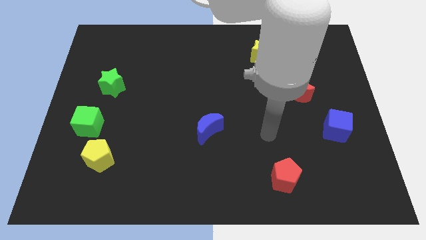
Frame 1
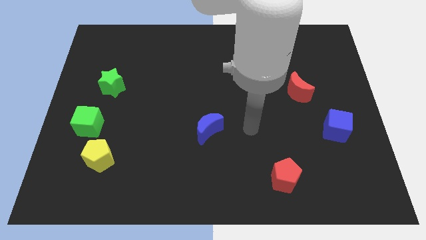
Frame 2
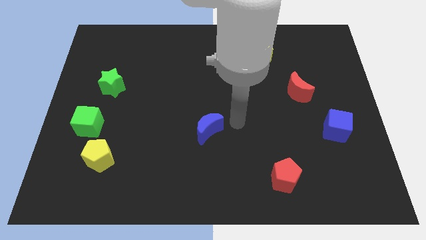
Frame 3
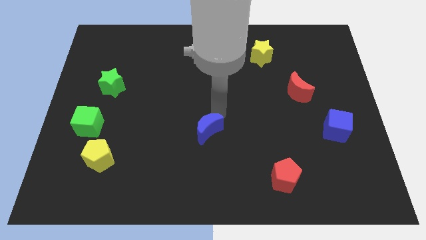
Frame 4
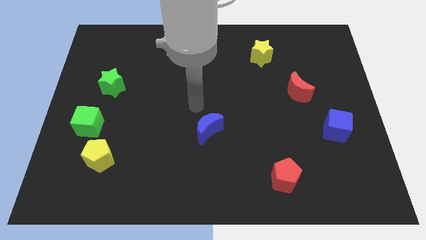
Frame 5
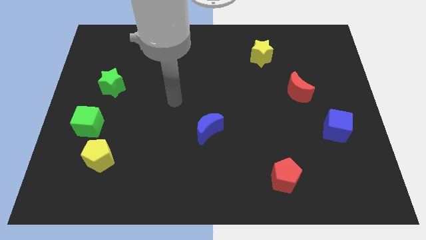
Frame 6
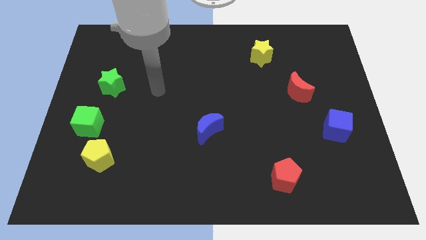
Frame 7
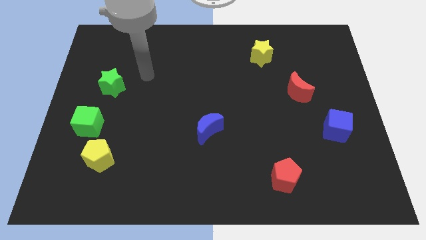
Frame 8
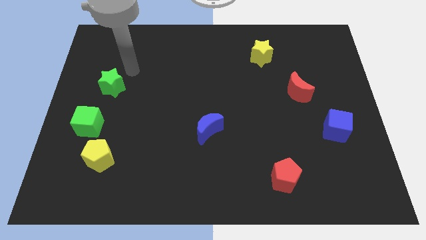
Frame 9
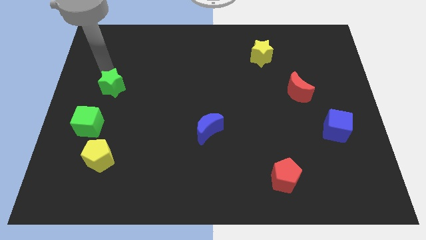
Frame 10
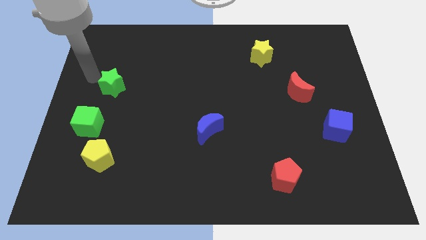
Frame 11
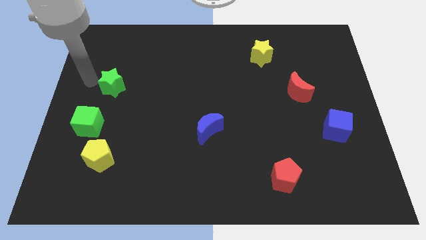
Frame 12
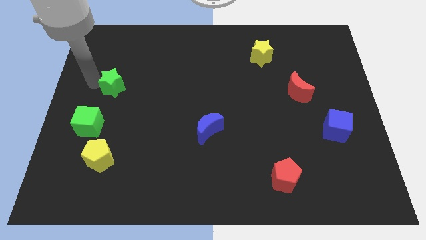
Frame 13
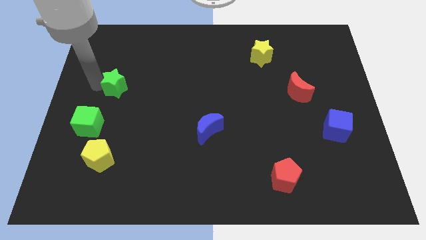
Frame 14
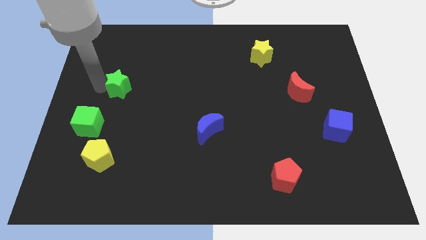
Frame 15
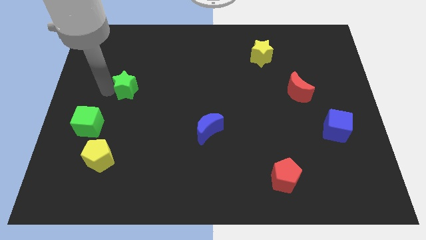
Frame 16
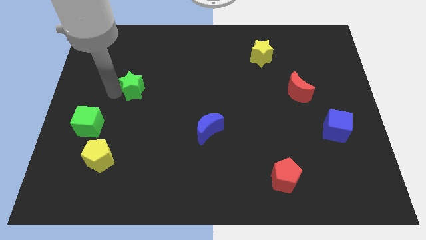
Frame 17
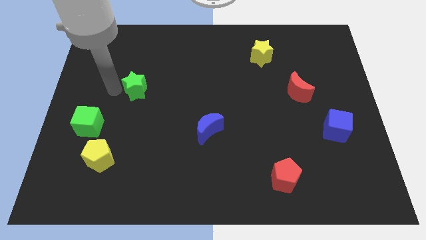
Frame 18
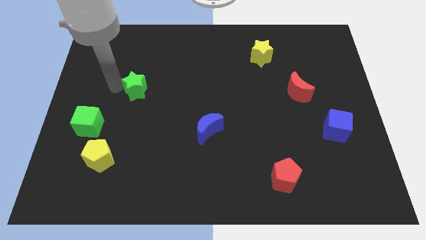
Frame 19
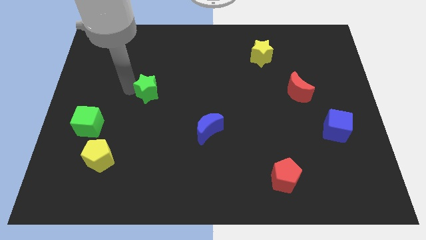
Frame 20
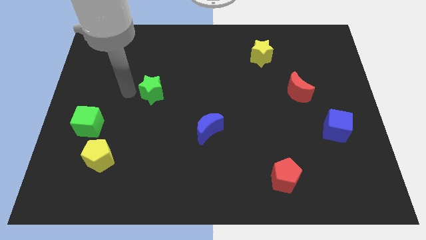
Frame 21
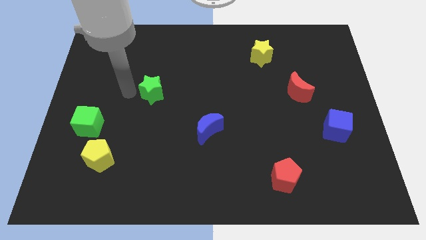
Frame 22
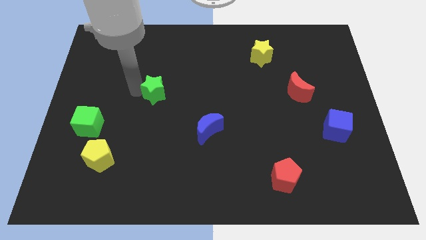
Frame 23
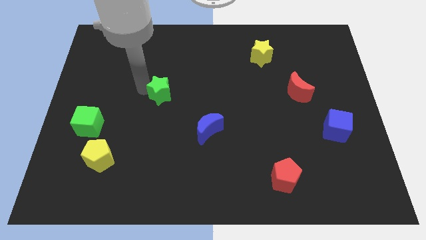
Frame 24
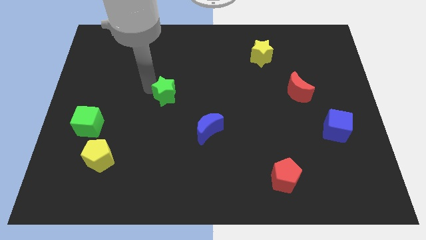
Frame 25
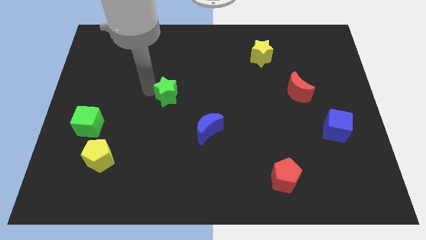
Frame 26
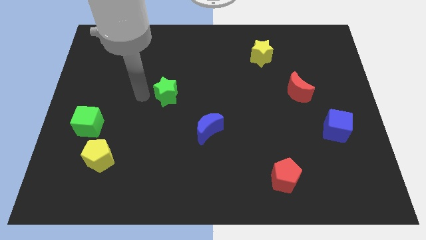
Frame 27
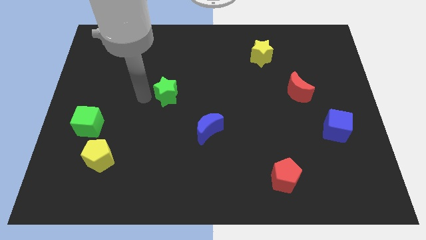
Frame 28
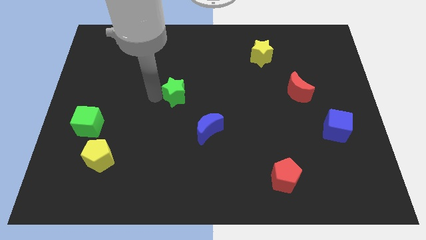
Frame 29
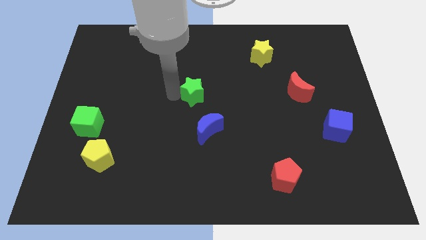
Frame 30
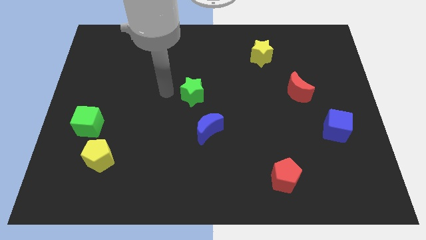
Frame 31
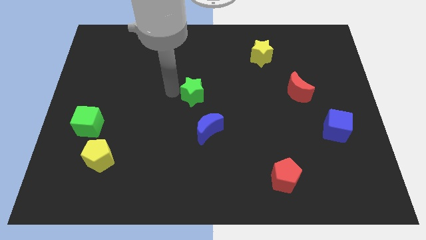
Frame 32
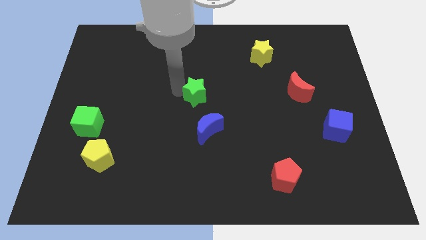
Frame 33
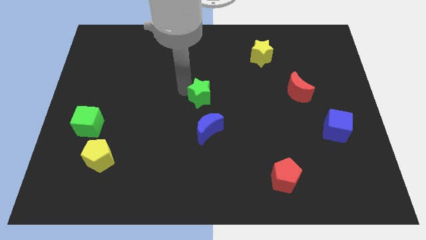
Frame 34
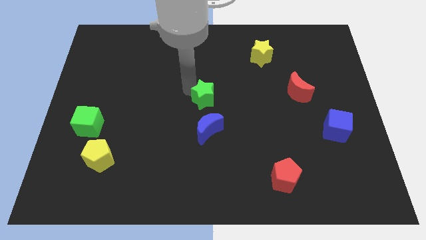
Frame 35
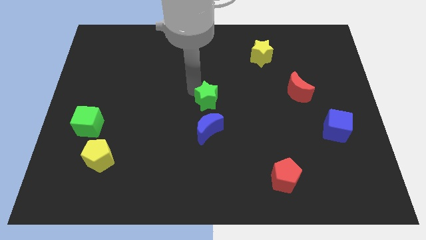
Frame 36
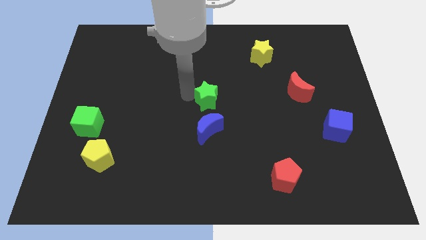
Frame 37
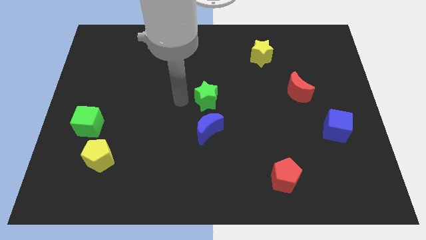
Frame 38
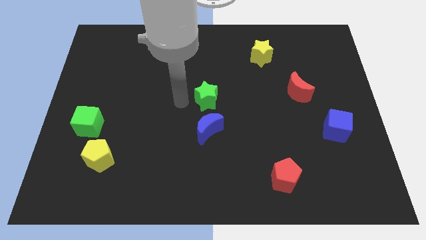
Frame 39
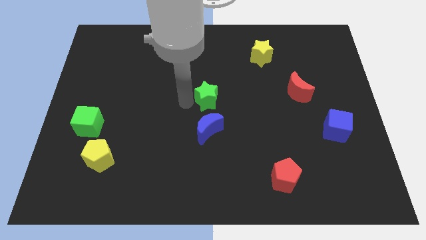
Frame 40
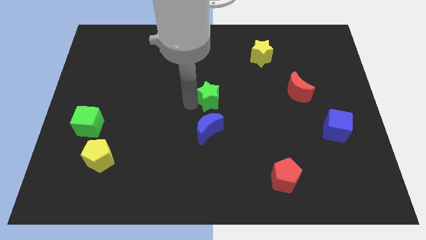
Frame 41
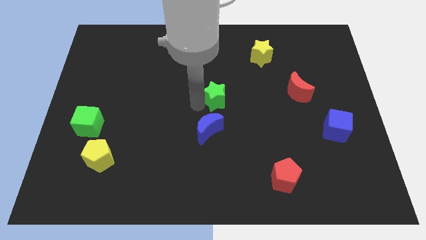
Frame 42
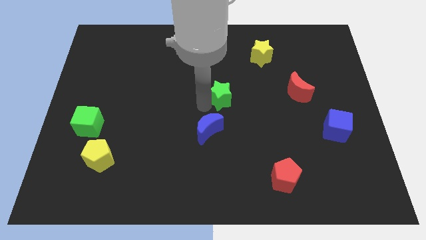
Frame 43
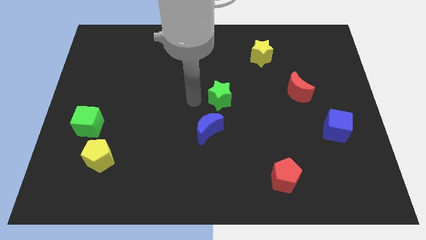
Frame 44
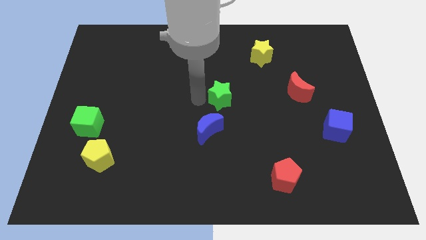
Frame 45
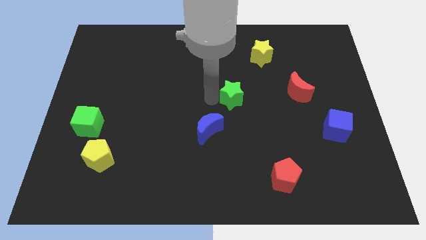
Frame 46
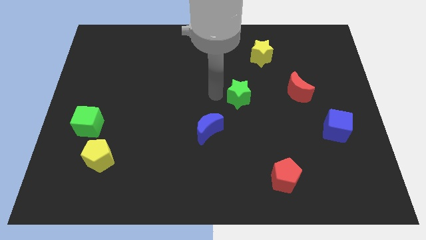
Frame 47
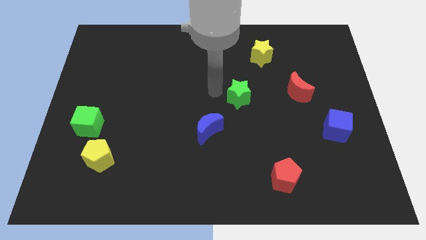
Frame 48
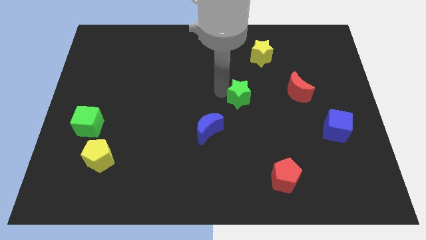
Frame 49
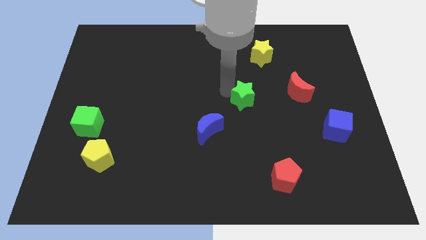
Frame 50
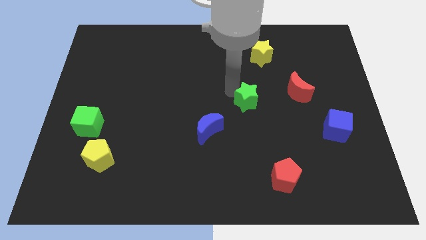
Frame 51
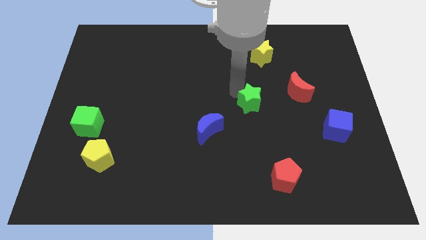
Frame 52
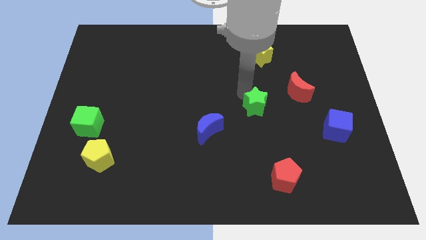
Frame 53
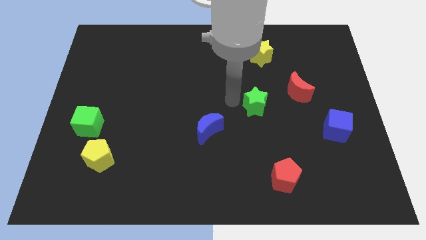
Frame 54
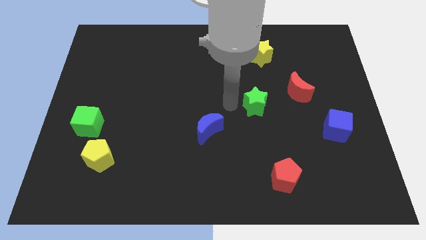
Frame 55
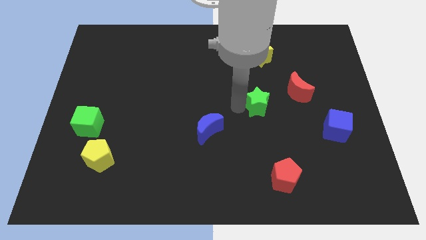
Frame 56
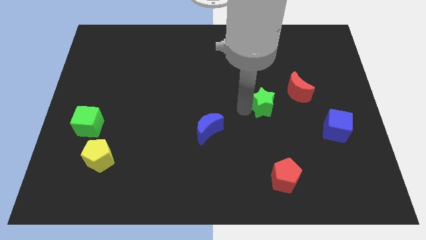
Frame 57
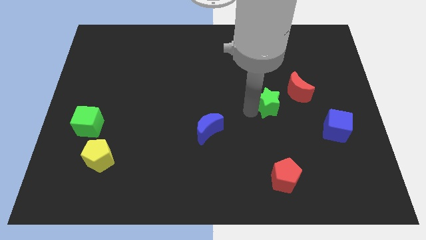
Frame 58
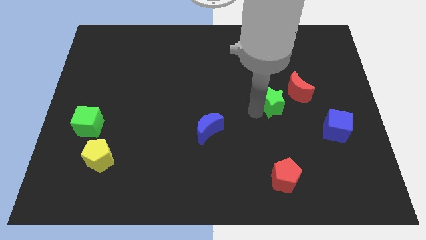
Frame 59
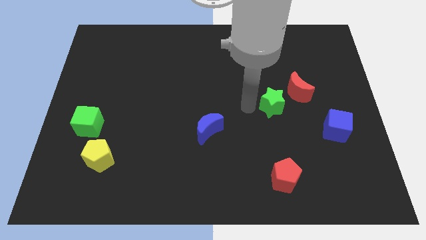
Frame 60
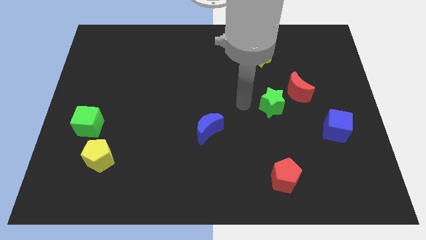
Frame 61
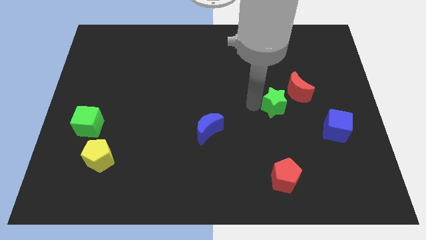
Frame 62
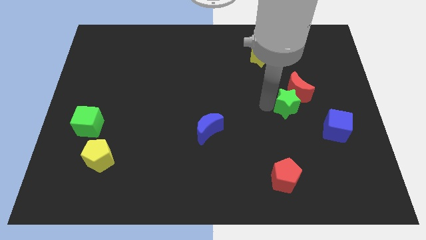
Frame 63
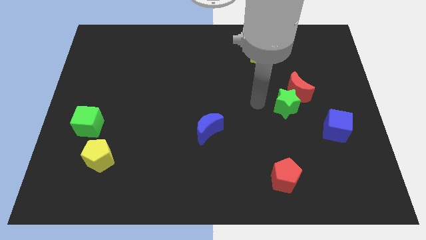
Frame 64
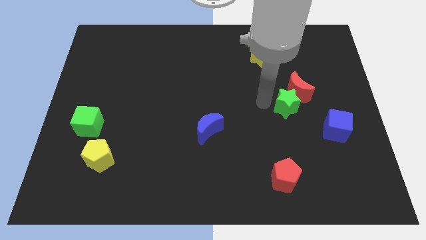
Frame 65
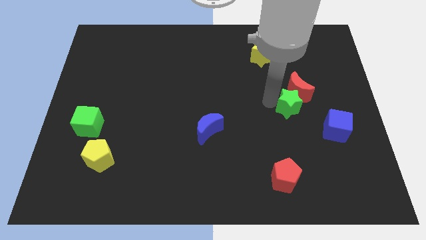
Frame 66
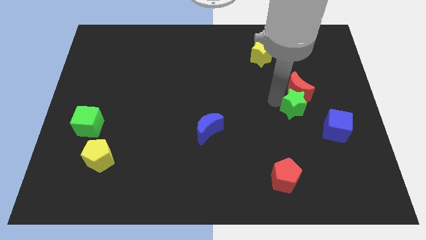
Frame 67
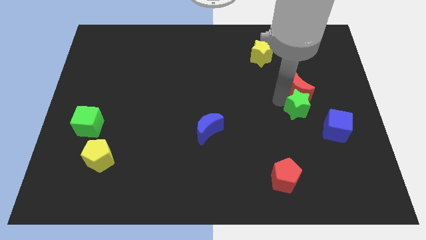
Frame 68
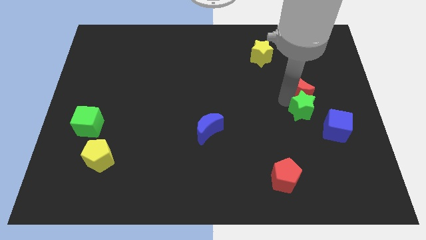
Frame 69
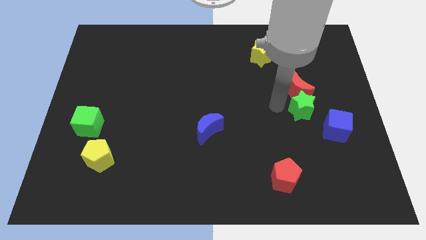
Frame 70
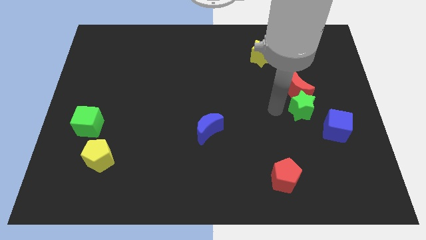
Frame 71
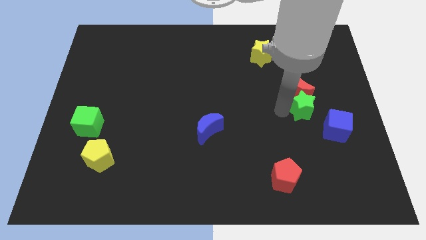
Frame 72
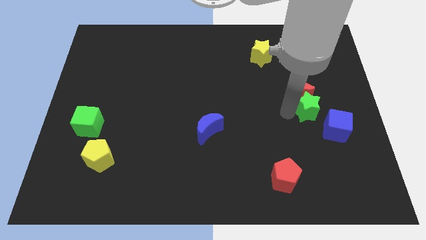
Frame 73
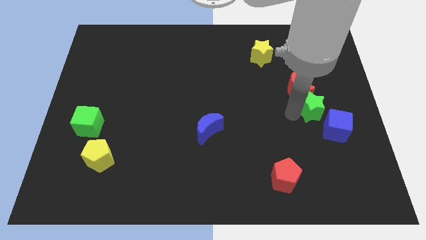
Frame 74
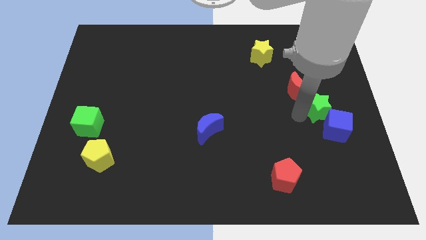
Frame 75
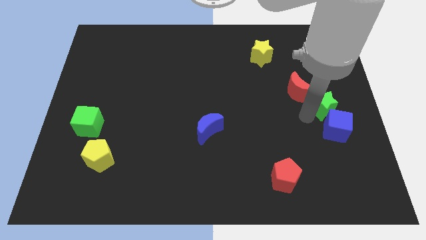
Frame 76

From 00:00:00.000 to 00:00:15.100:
push the green star to the right side of the board

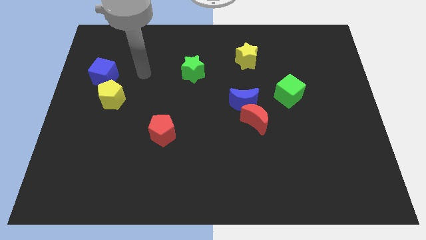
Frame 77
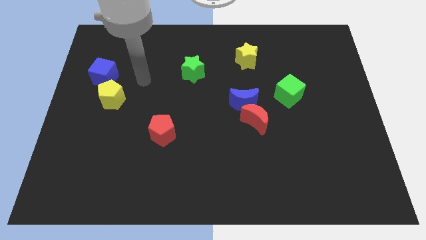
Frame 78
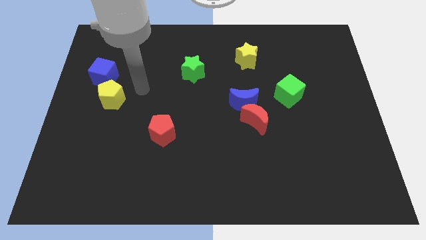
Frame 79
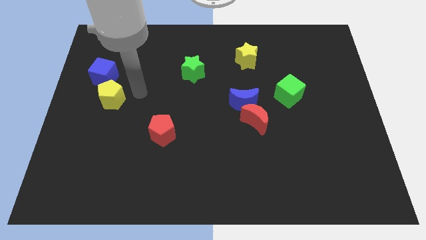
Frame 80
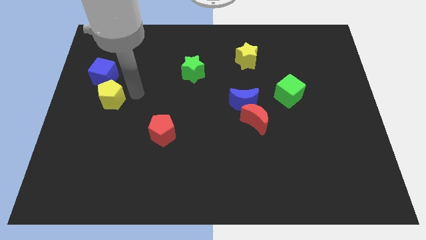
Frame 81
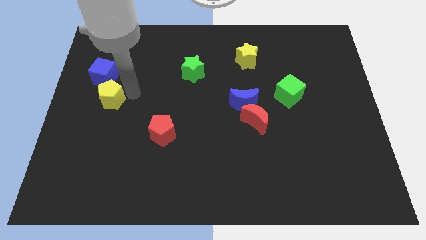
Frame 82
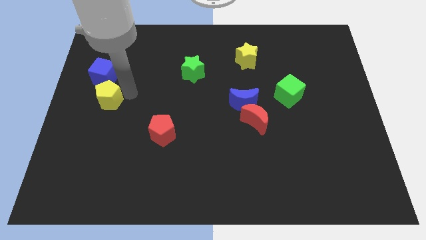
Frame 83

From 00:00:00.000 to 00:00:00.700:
slide the yellow pentagon to the left side
